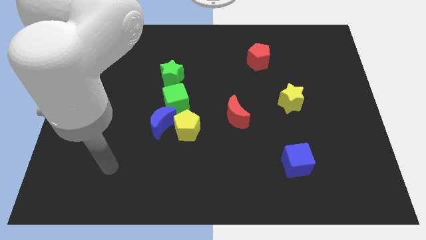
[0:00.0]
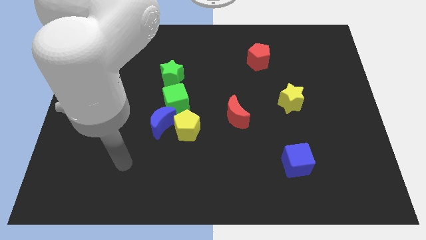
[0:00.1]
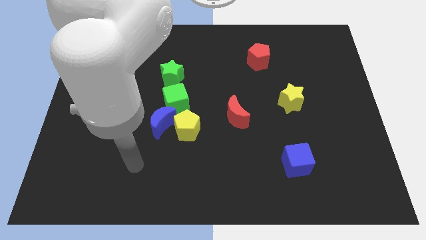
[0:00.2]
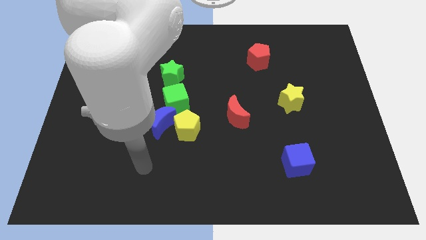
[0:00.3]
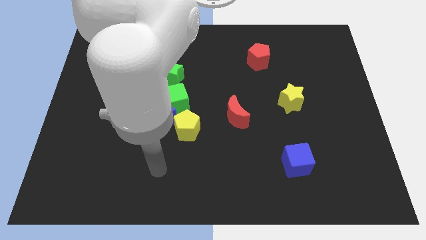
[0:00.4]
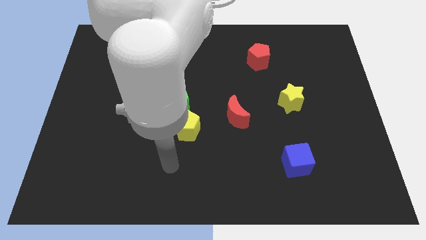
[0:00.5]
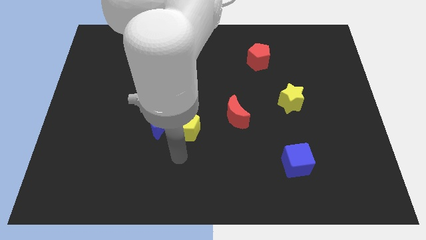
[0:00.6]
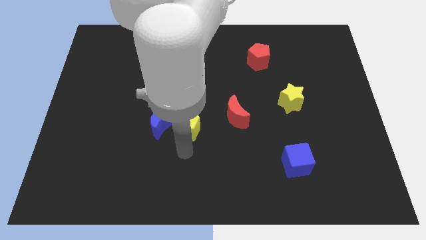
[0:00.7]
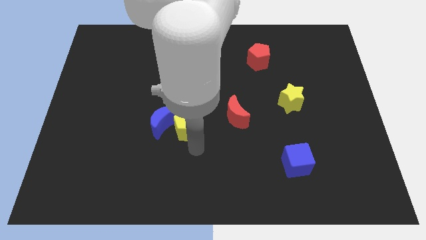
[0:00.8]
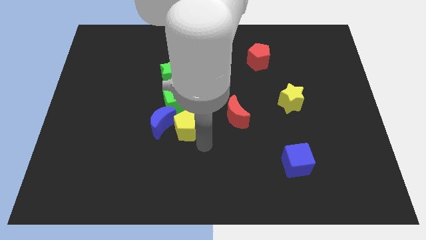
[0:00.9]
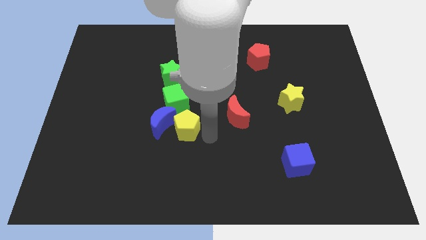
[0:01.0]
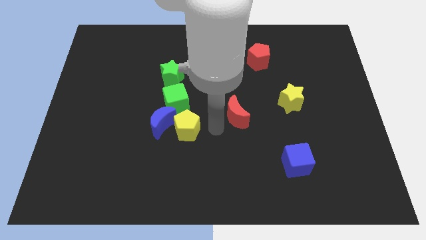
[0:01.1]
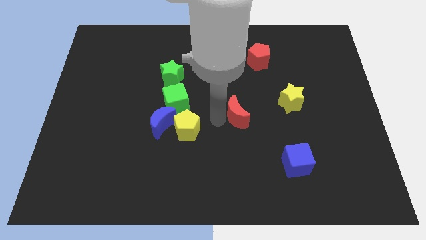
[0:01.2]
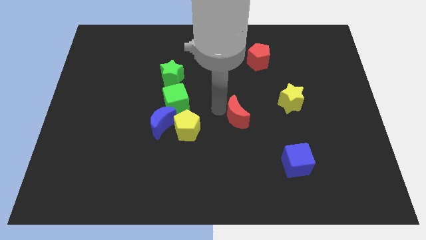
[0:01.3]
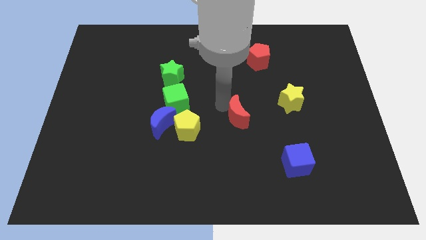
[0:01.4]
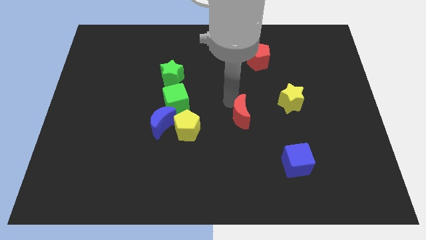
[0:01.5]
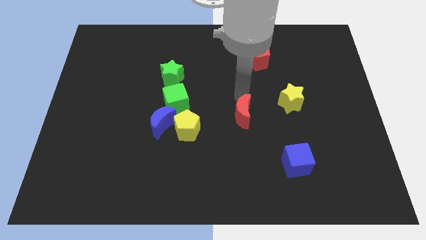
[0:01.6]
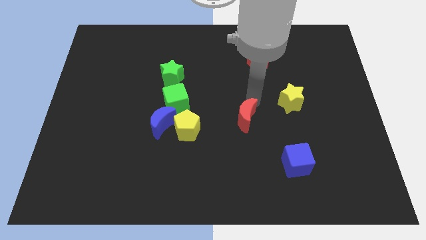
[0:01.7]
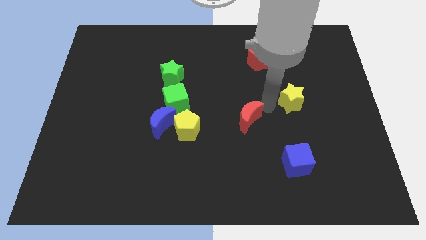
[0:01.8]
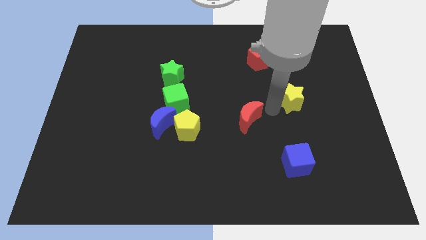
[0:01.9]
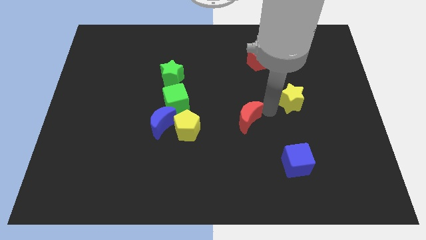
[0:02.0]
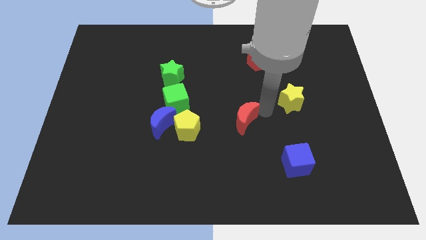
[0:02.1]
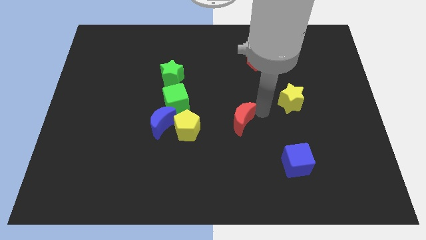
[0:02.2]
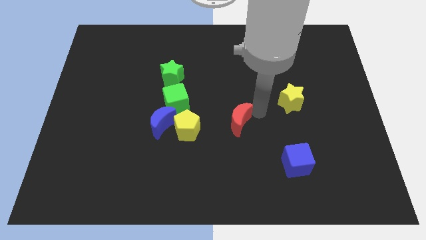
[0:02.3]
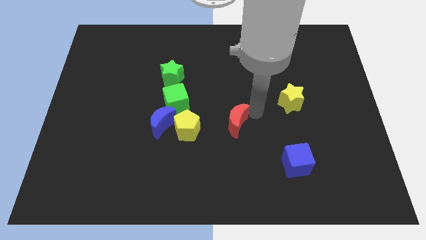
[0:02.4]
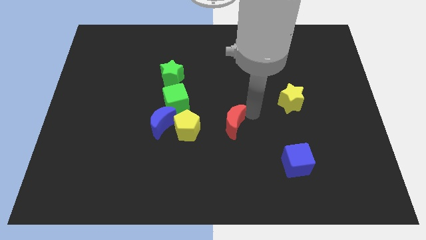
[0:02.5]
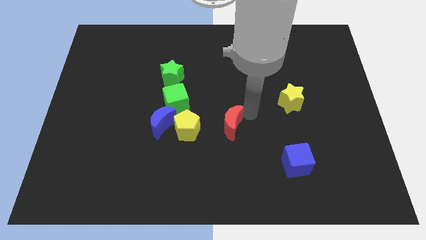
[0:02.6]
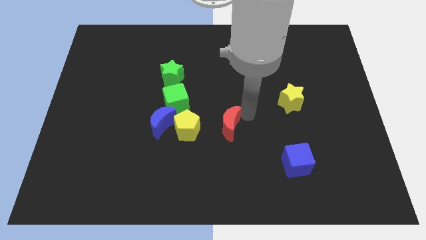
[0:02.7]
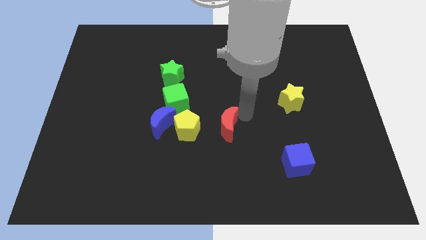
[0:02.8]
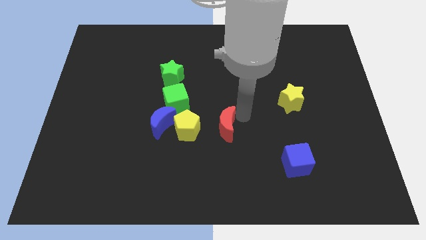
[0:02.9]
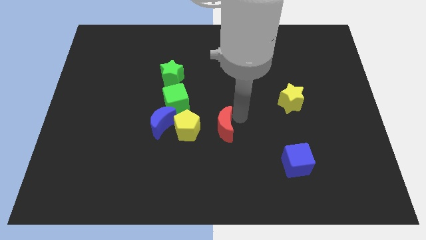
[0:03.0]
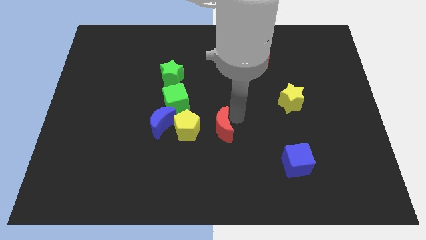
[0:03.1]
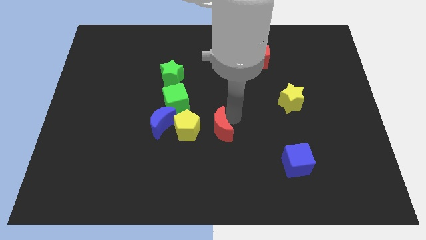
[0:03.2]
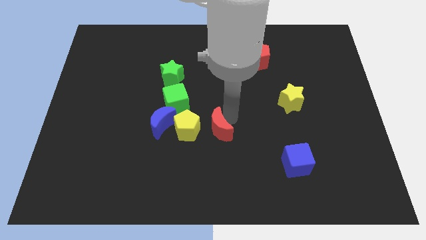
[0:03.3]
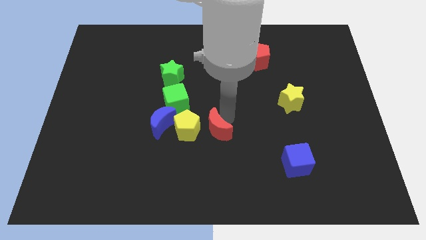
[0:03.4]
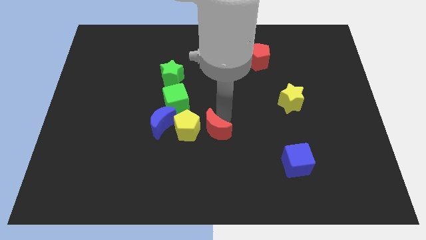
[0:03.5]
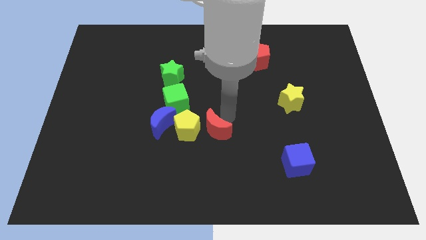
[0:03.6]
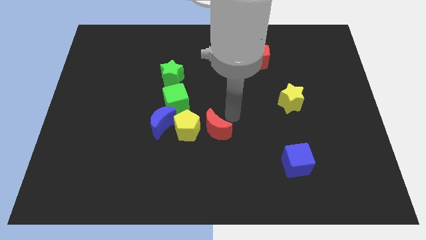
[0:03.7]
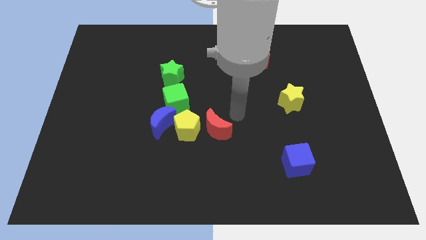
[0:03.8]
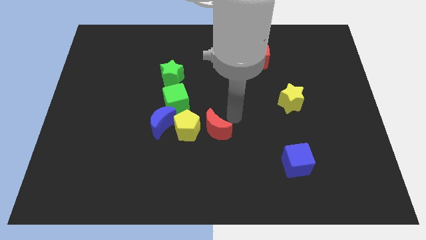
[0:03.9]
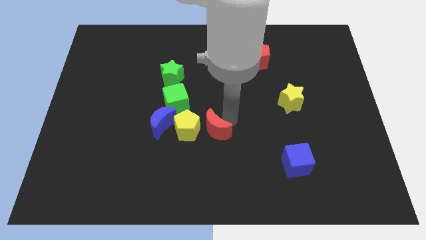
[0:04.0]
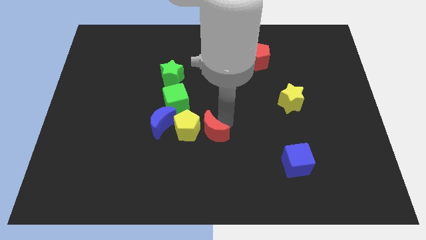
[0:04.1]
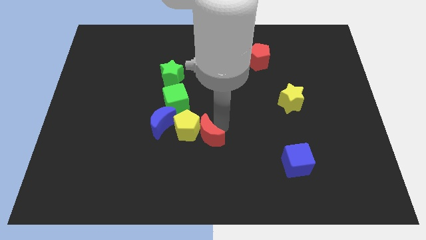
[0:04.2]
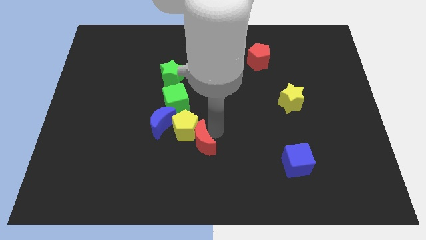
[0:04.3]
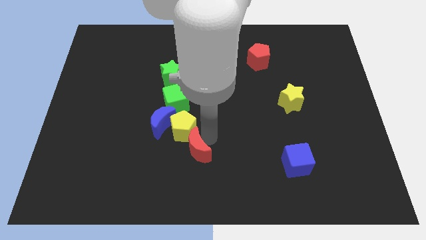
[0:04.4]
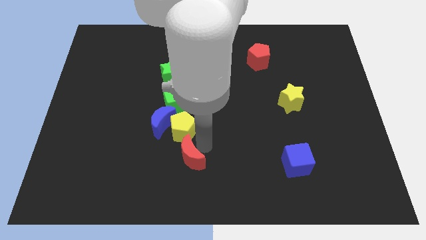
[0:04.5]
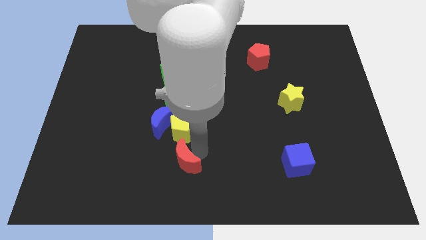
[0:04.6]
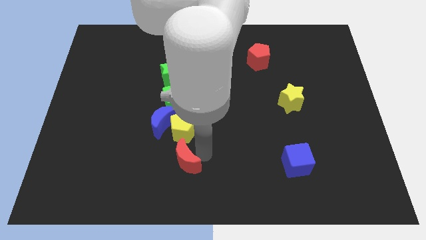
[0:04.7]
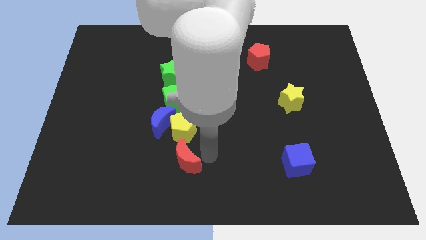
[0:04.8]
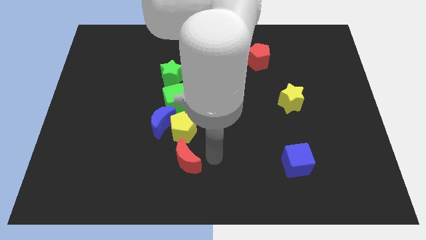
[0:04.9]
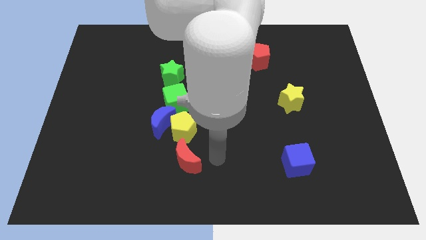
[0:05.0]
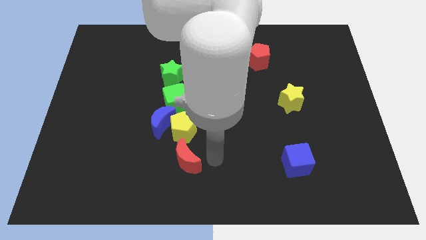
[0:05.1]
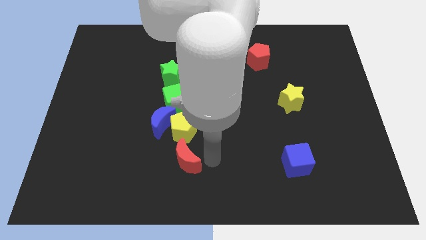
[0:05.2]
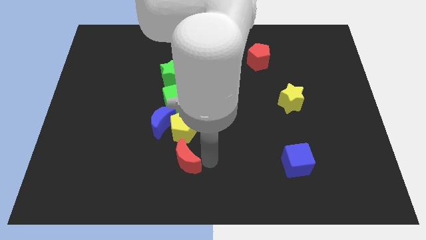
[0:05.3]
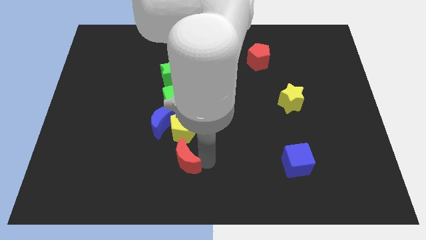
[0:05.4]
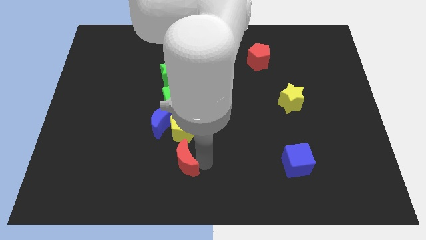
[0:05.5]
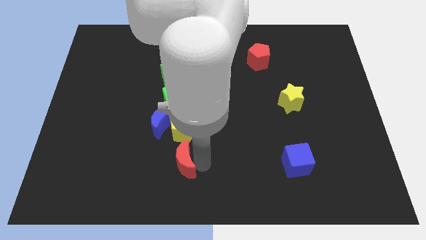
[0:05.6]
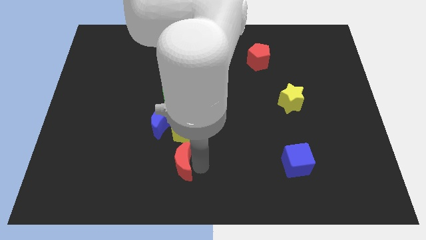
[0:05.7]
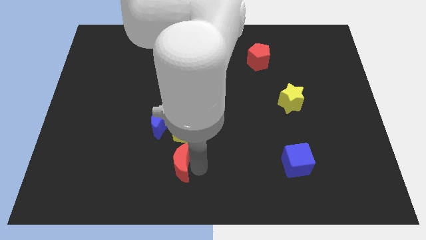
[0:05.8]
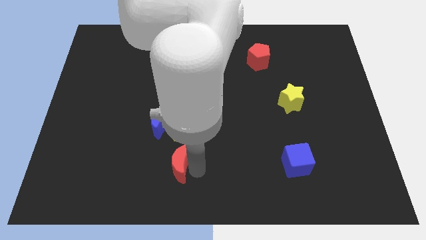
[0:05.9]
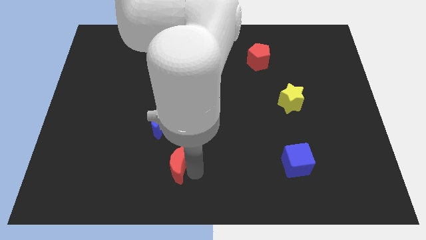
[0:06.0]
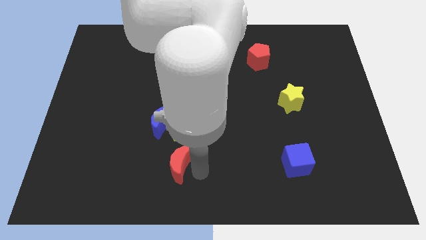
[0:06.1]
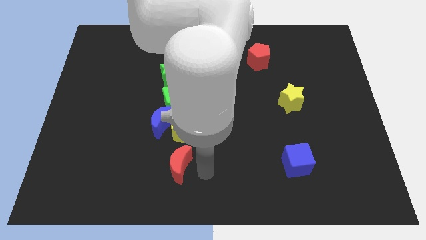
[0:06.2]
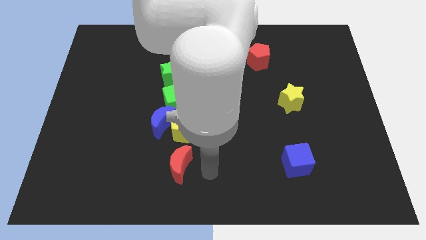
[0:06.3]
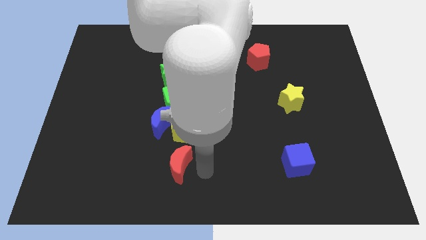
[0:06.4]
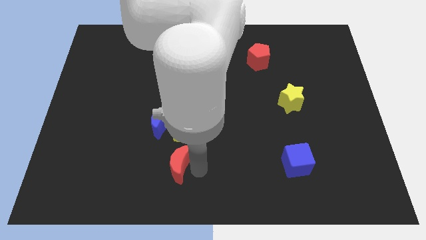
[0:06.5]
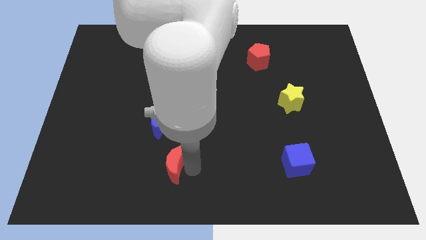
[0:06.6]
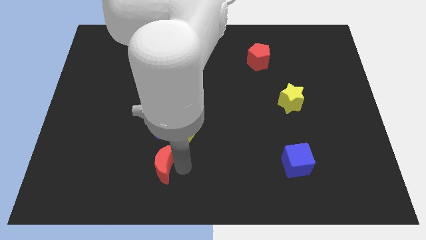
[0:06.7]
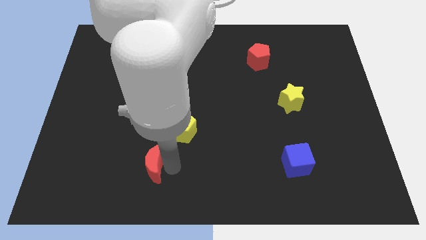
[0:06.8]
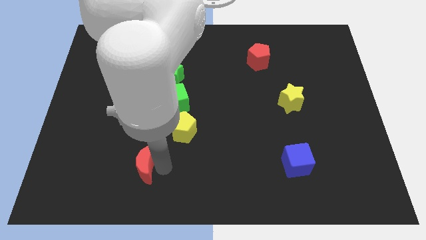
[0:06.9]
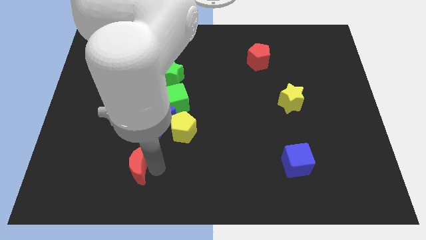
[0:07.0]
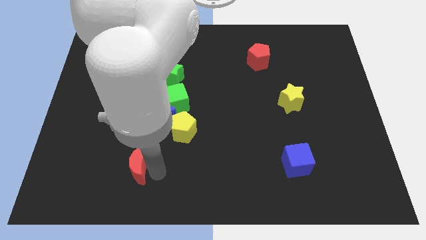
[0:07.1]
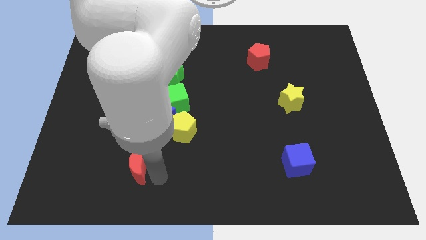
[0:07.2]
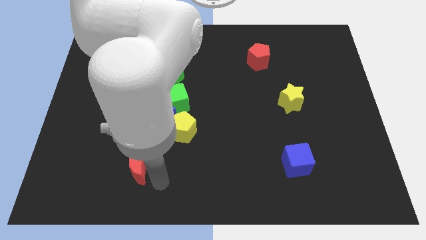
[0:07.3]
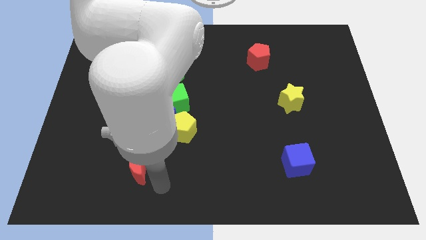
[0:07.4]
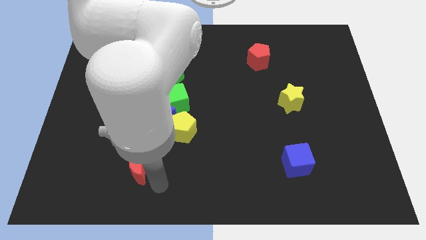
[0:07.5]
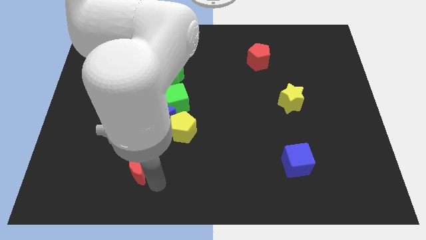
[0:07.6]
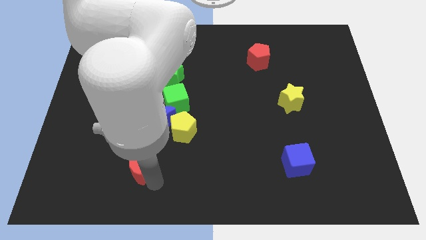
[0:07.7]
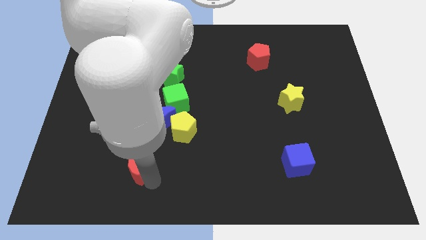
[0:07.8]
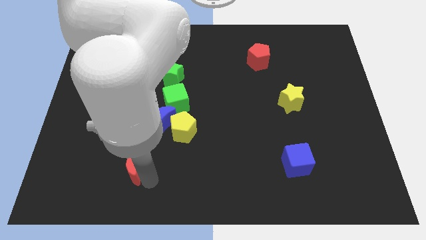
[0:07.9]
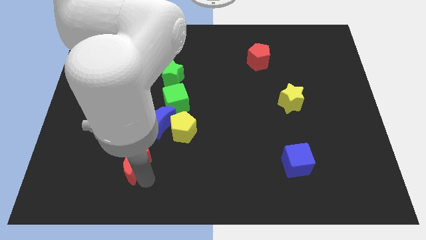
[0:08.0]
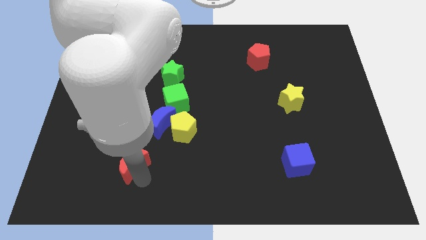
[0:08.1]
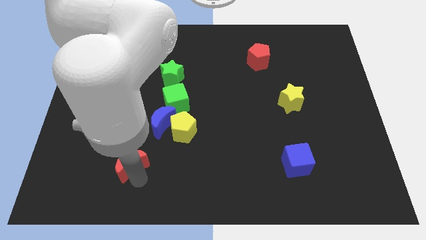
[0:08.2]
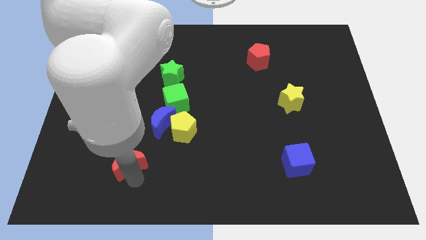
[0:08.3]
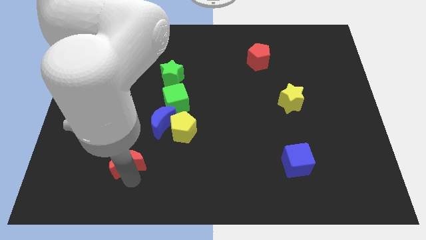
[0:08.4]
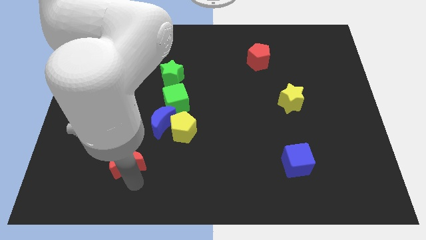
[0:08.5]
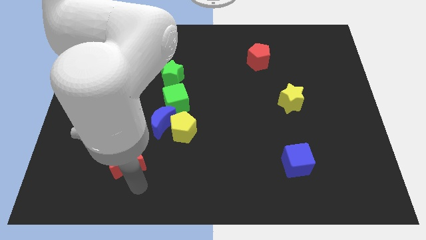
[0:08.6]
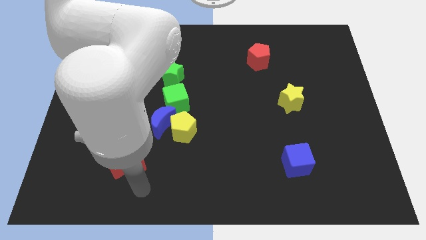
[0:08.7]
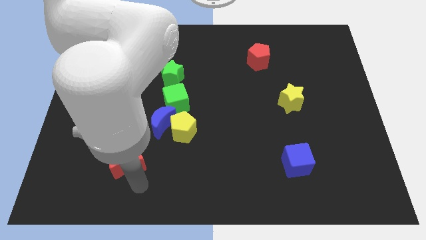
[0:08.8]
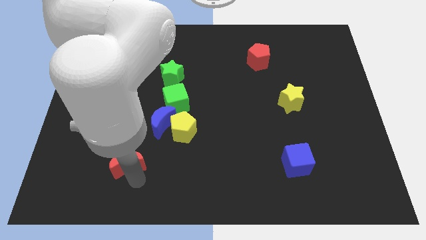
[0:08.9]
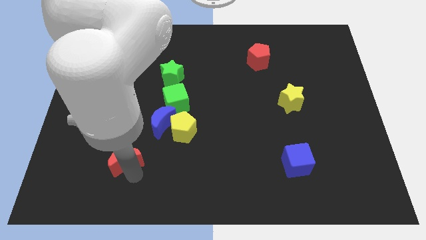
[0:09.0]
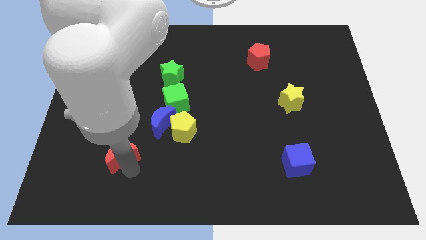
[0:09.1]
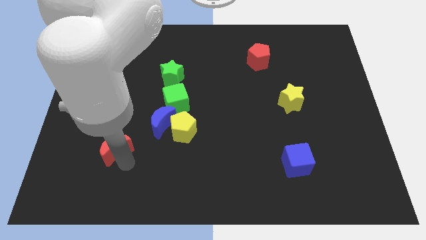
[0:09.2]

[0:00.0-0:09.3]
push the red moon to the left
